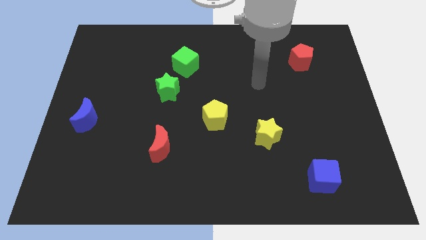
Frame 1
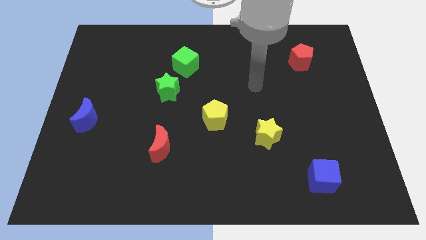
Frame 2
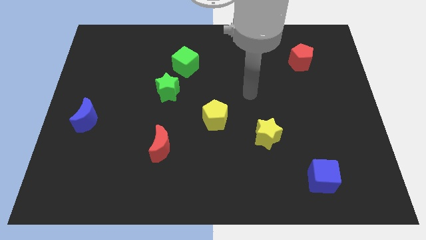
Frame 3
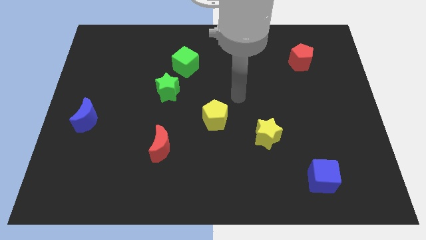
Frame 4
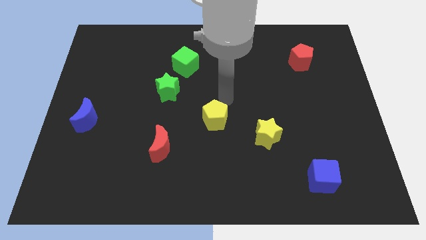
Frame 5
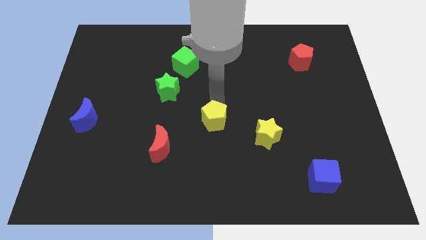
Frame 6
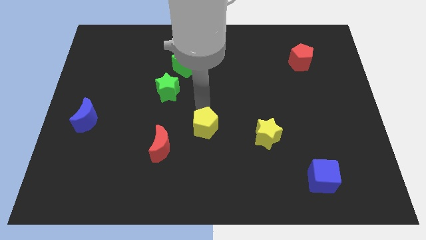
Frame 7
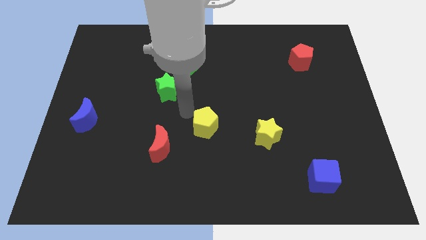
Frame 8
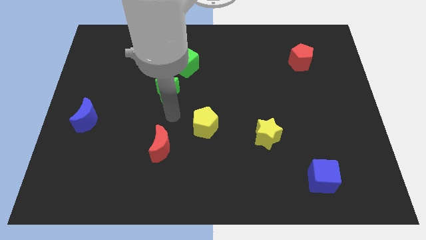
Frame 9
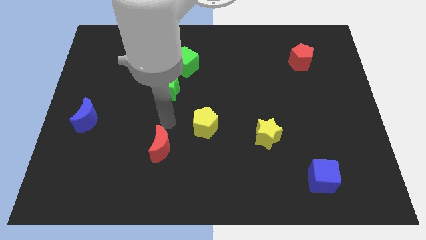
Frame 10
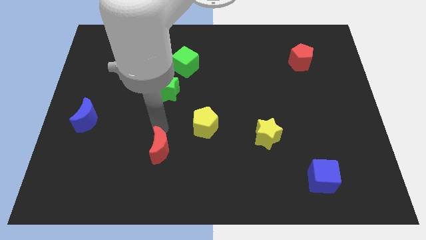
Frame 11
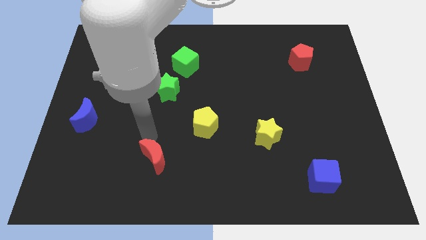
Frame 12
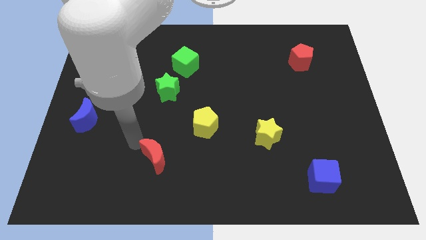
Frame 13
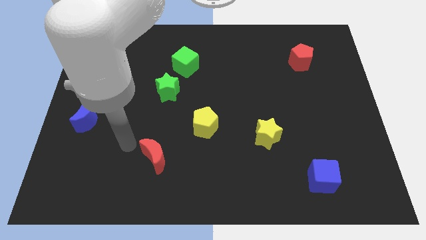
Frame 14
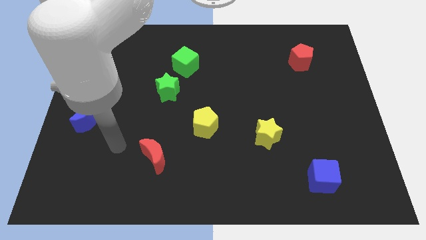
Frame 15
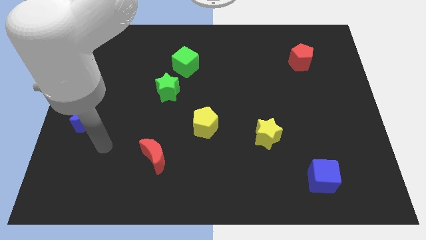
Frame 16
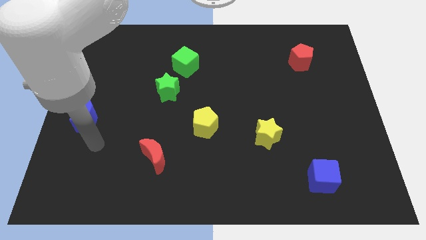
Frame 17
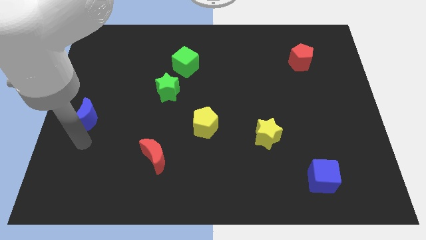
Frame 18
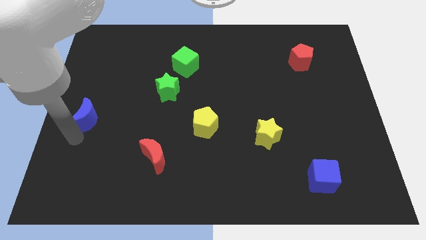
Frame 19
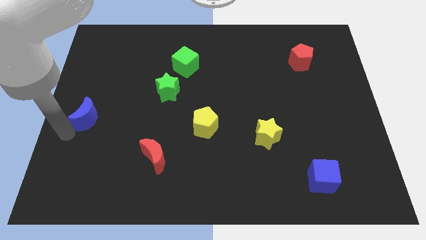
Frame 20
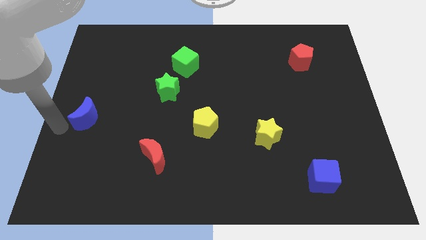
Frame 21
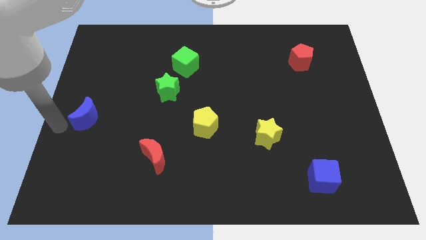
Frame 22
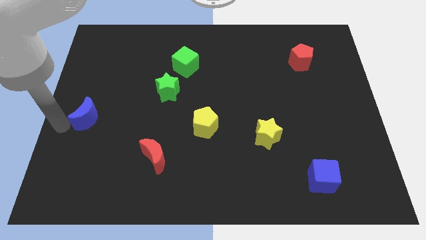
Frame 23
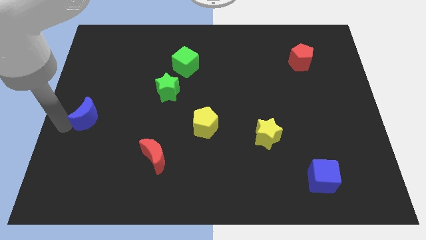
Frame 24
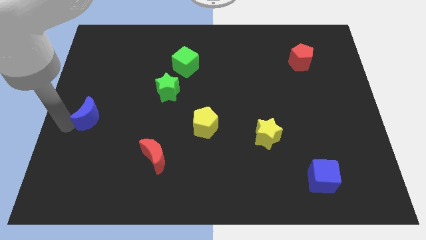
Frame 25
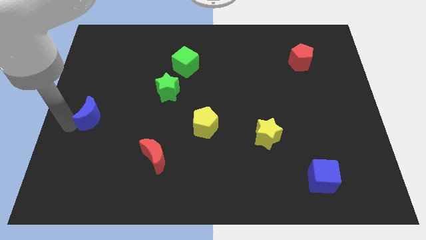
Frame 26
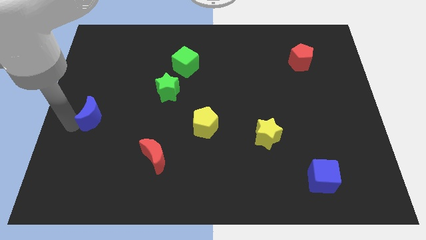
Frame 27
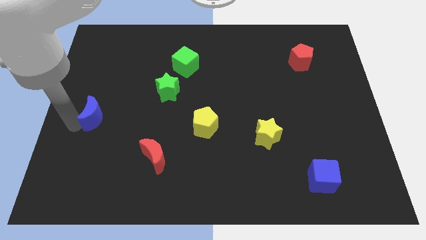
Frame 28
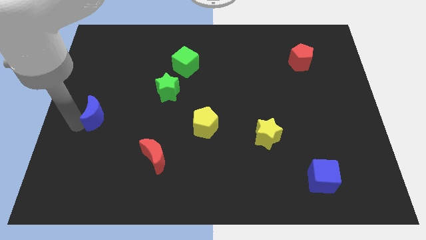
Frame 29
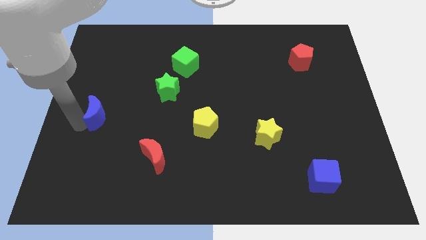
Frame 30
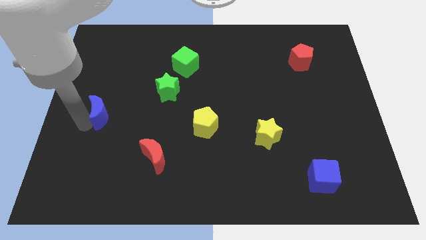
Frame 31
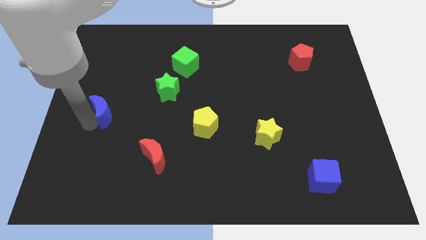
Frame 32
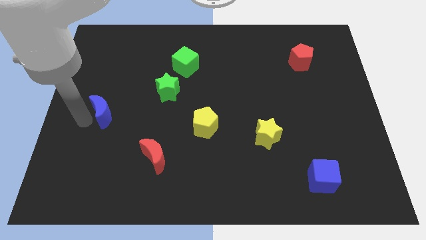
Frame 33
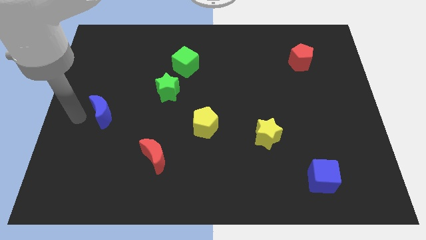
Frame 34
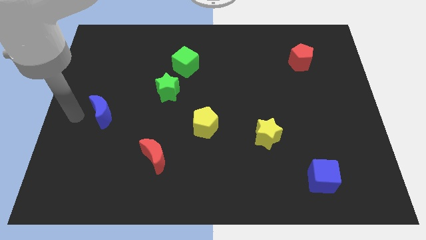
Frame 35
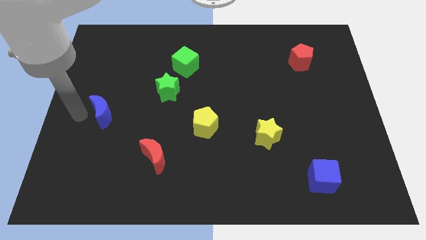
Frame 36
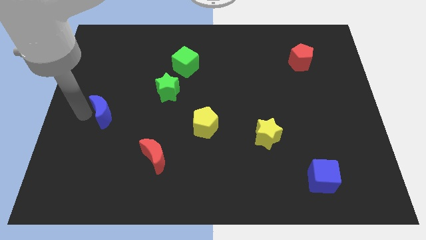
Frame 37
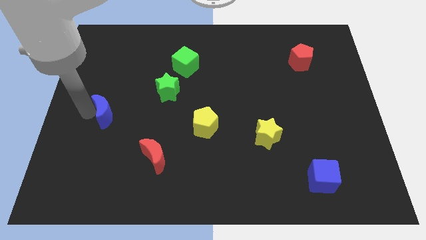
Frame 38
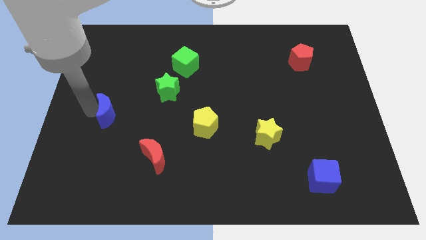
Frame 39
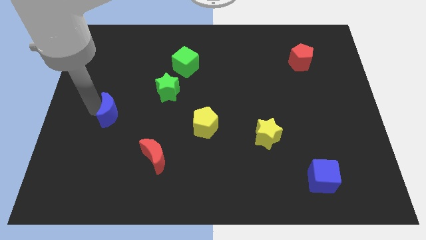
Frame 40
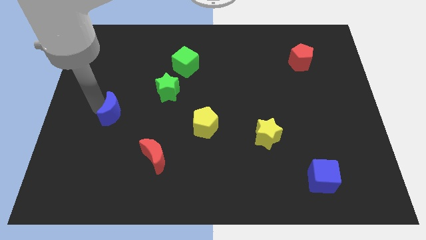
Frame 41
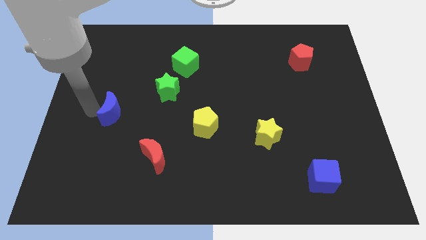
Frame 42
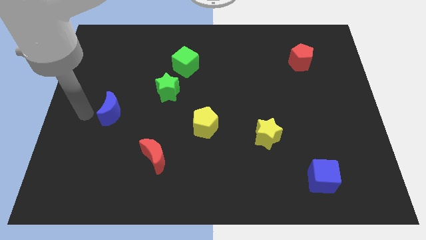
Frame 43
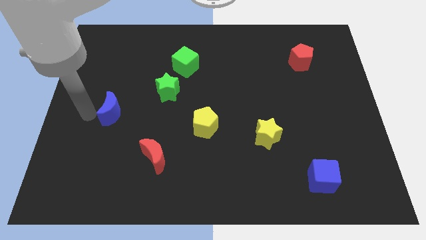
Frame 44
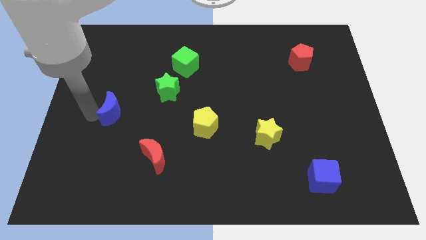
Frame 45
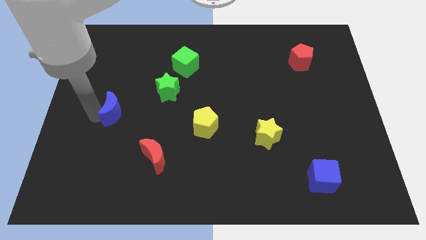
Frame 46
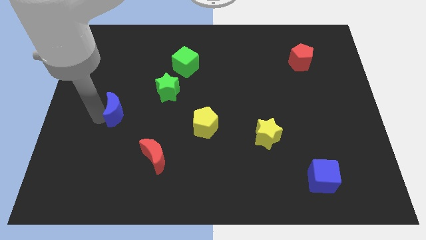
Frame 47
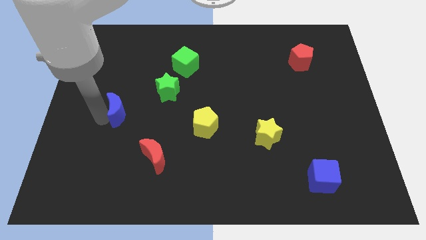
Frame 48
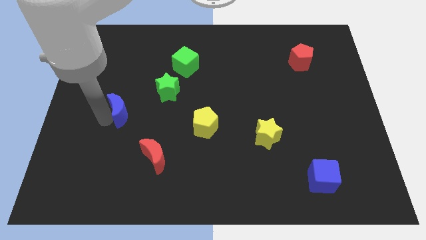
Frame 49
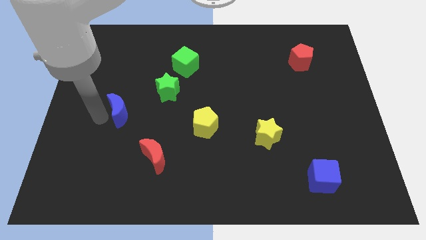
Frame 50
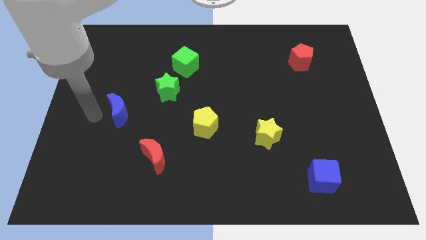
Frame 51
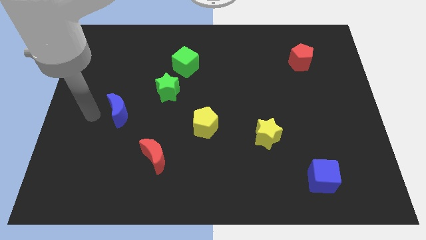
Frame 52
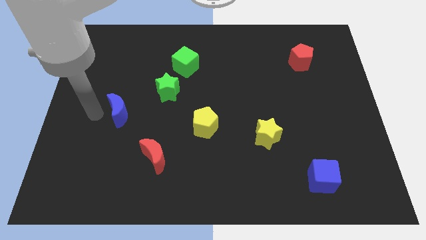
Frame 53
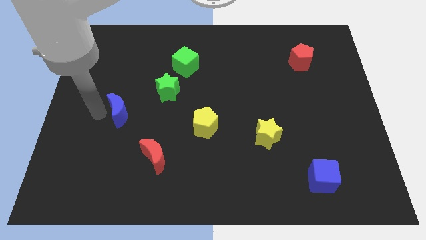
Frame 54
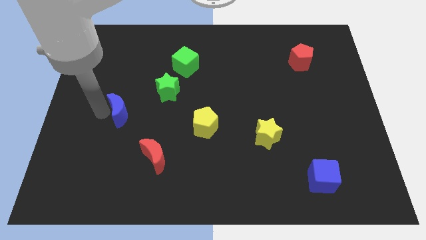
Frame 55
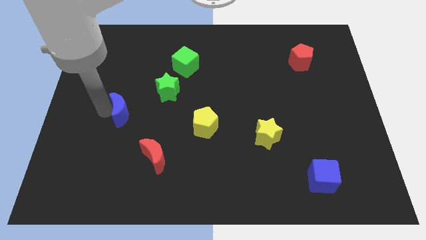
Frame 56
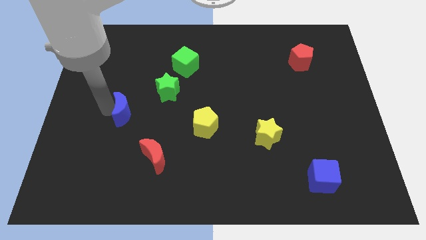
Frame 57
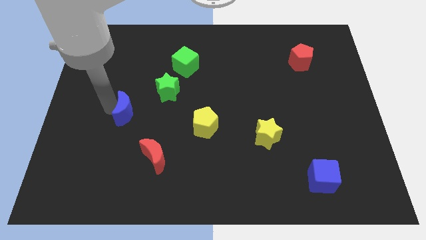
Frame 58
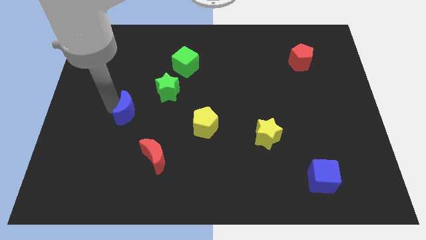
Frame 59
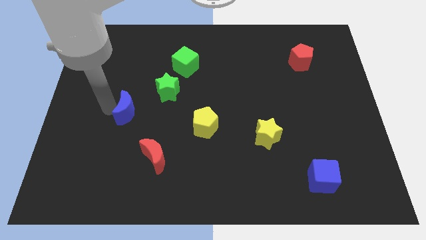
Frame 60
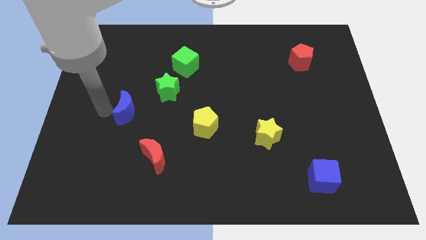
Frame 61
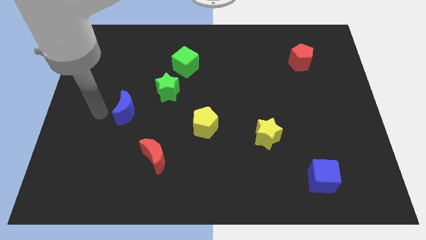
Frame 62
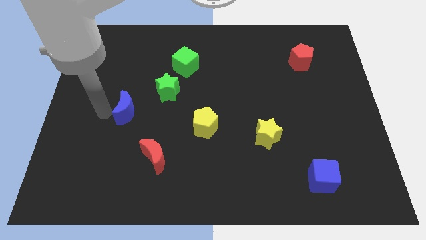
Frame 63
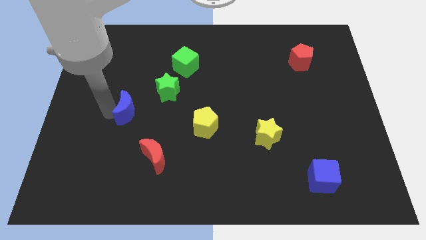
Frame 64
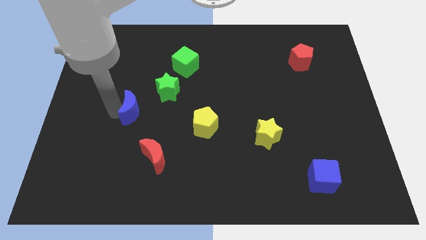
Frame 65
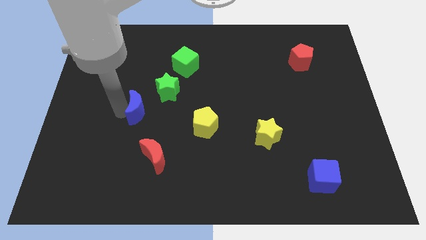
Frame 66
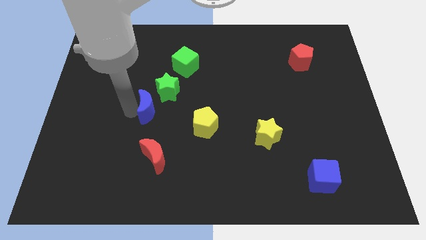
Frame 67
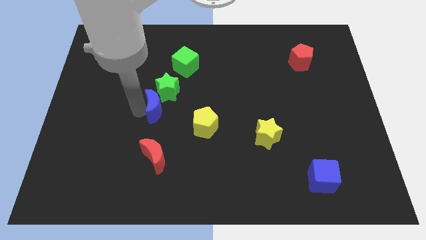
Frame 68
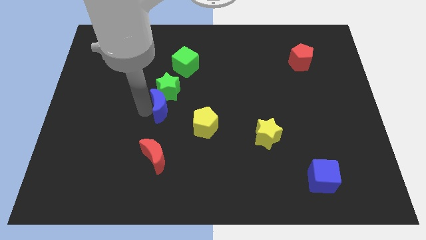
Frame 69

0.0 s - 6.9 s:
put the blue moon to the center

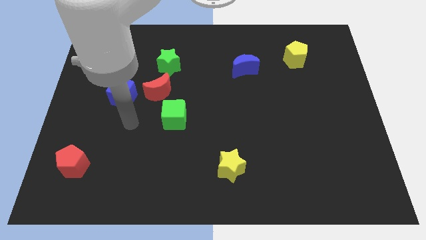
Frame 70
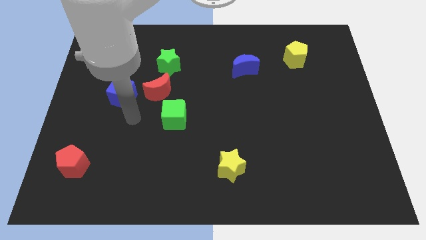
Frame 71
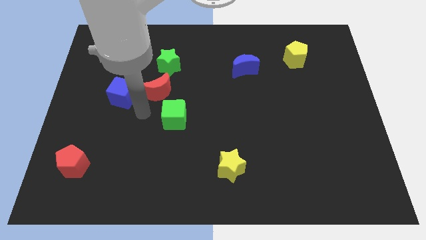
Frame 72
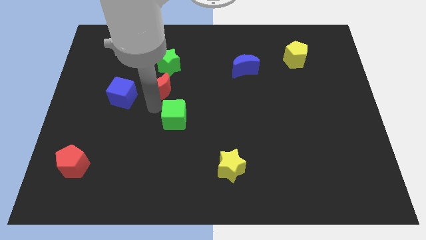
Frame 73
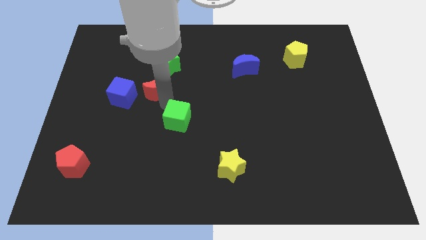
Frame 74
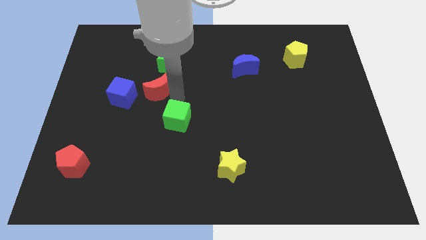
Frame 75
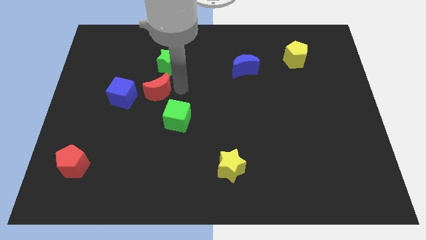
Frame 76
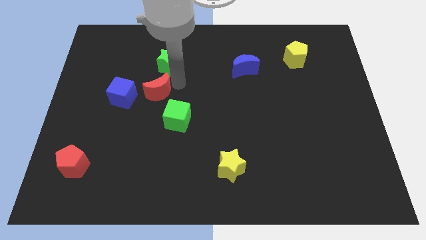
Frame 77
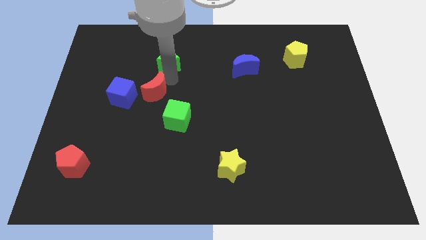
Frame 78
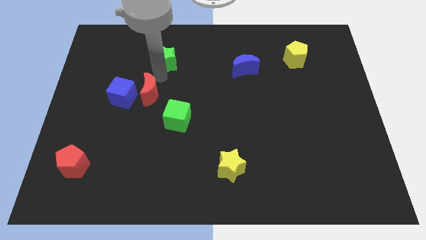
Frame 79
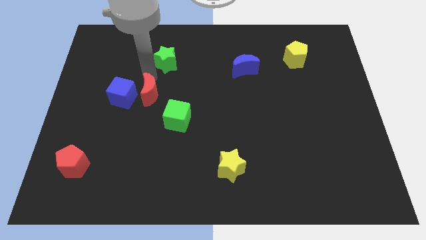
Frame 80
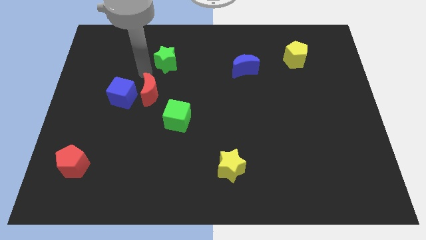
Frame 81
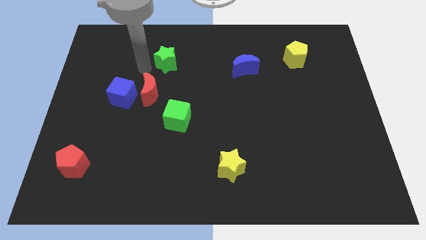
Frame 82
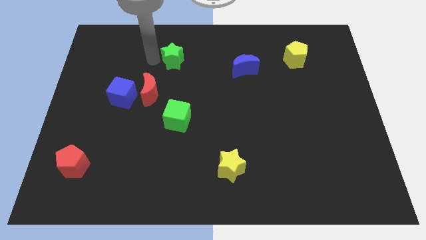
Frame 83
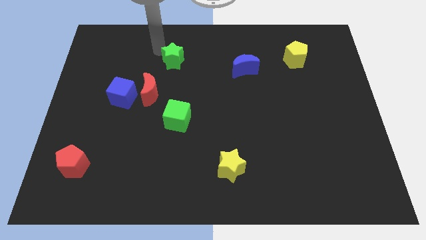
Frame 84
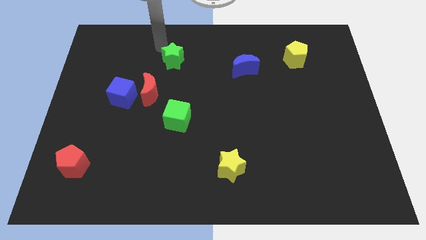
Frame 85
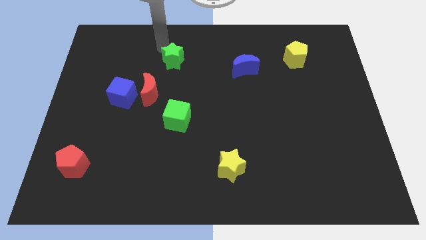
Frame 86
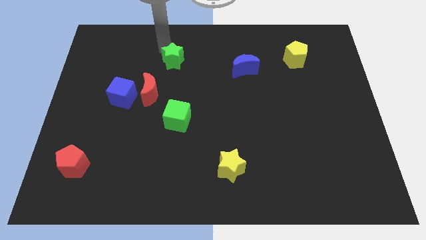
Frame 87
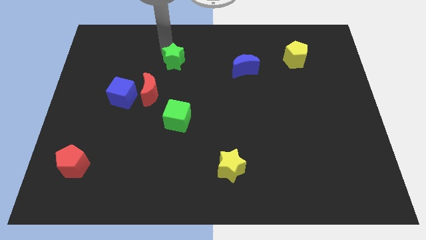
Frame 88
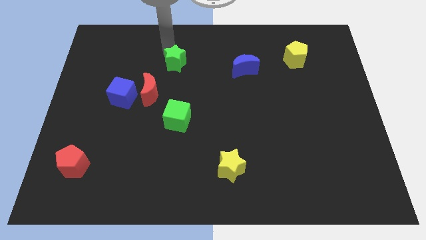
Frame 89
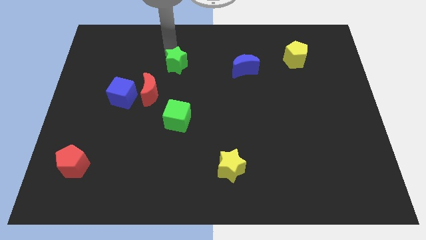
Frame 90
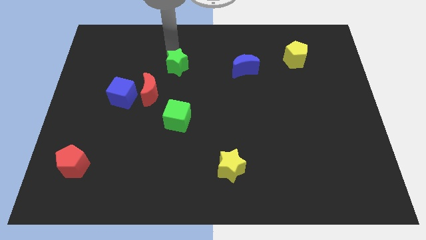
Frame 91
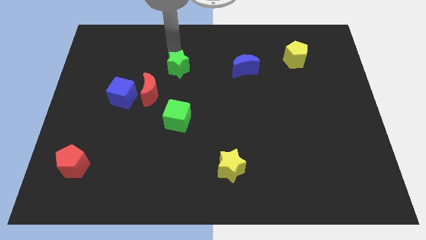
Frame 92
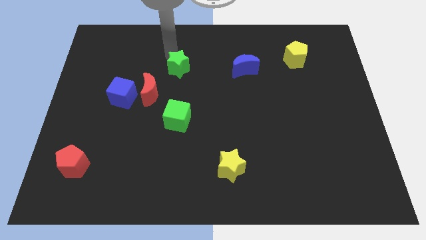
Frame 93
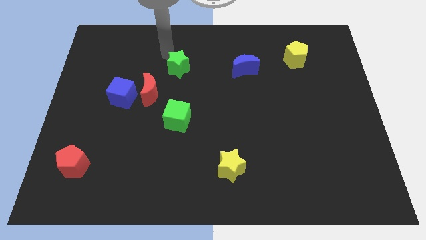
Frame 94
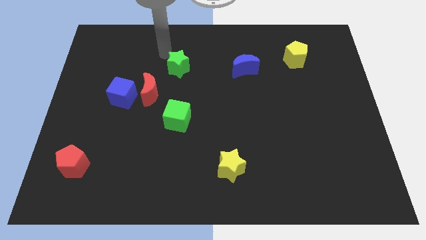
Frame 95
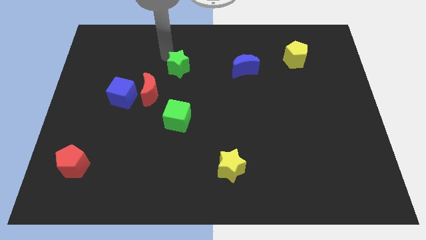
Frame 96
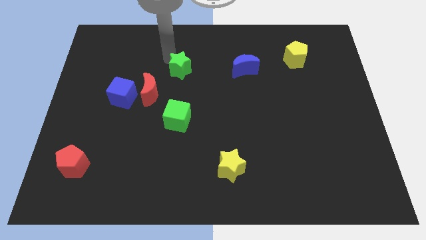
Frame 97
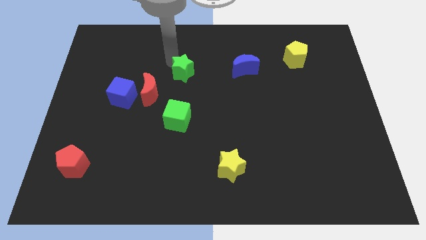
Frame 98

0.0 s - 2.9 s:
slide the green star to the middle of the board
